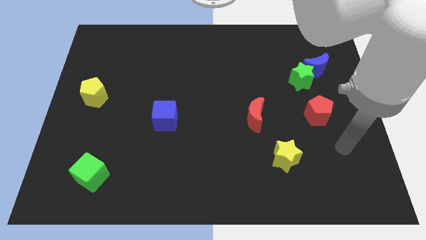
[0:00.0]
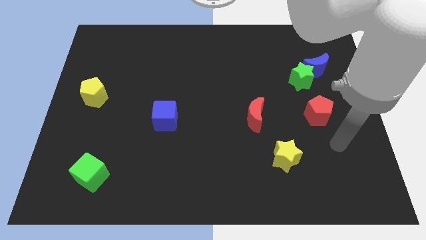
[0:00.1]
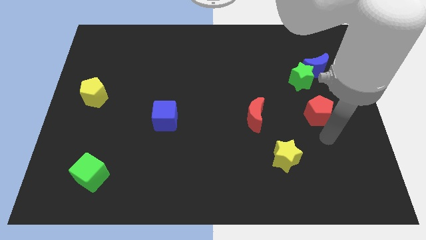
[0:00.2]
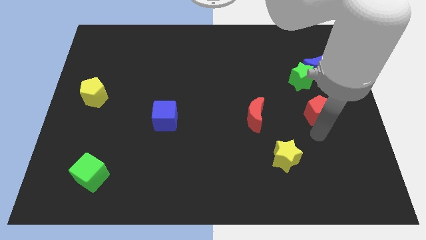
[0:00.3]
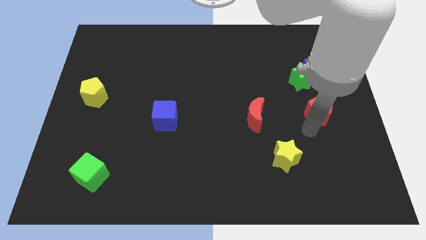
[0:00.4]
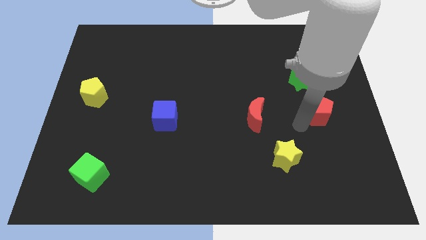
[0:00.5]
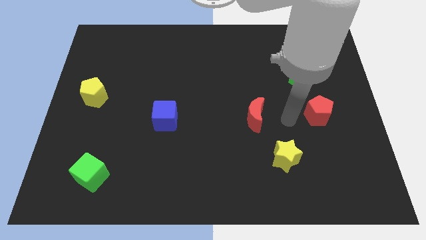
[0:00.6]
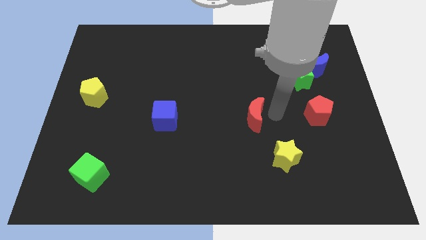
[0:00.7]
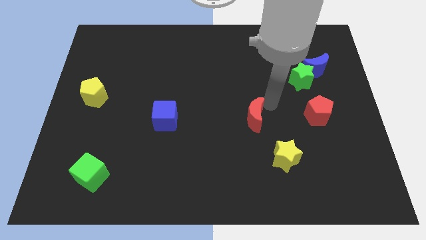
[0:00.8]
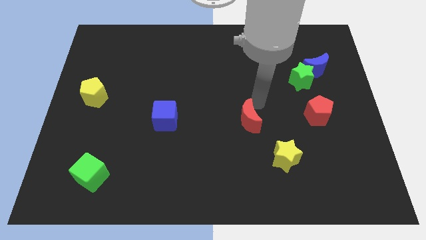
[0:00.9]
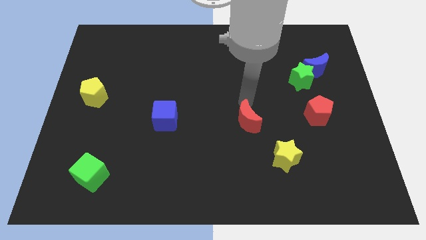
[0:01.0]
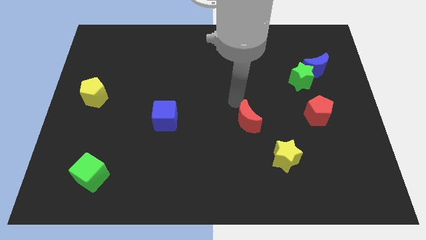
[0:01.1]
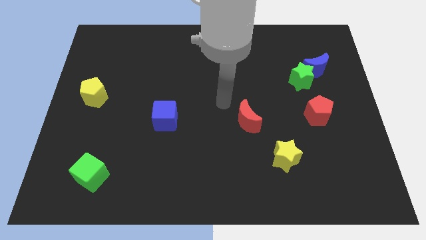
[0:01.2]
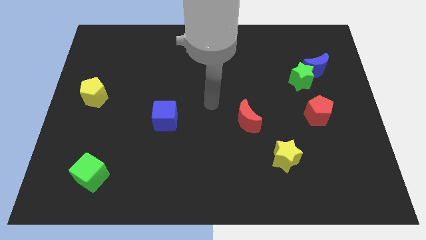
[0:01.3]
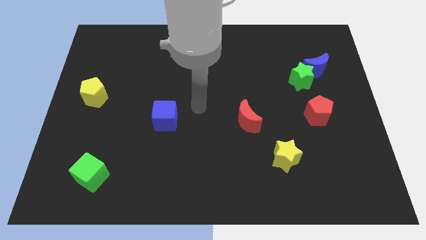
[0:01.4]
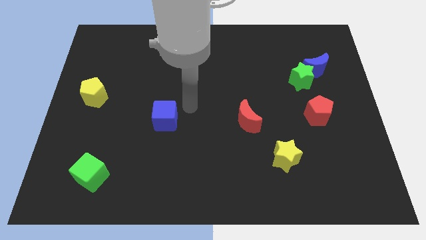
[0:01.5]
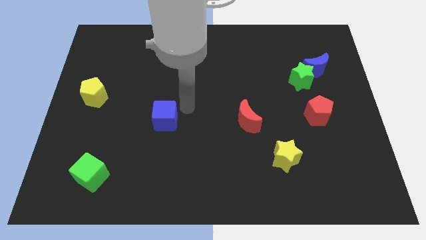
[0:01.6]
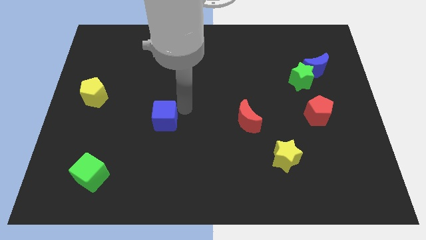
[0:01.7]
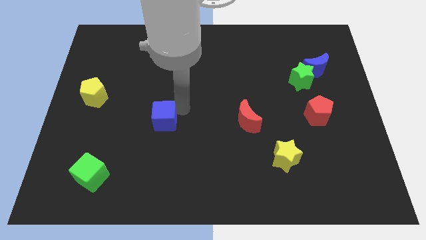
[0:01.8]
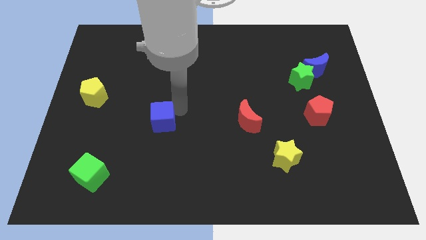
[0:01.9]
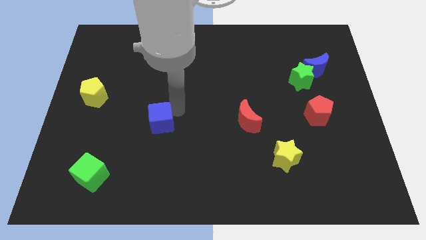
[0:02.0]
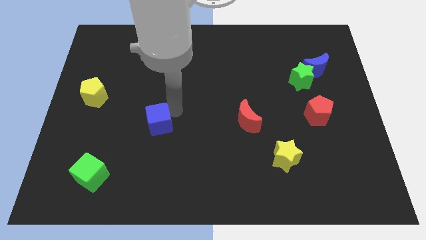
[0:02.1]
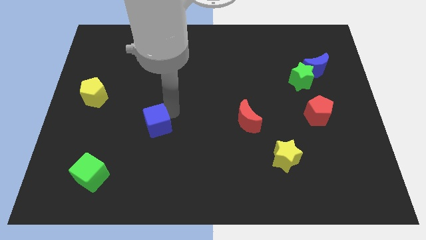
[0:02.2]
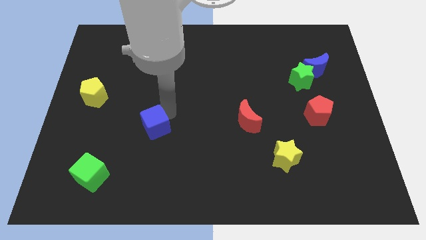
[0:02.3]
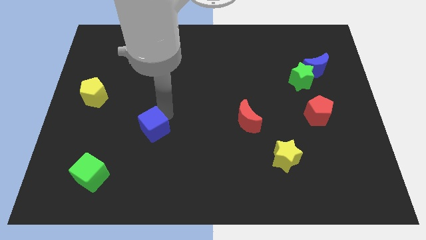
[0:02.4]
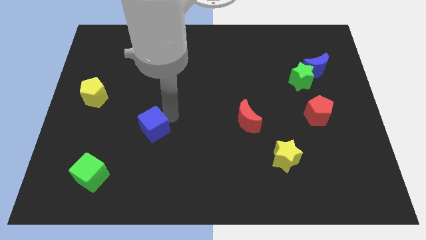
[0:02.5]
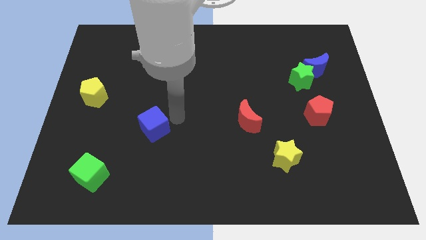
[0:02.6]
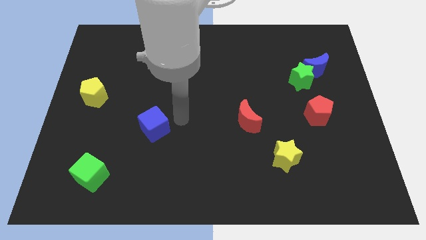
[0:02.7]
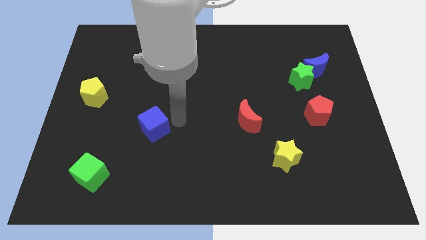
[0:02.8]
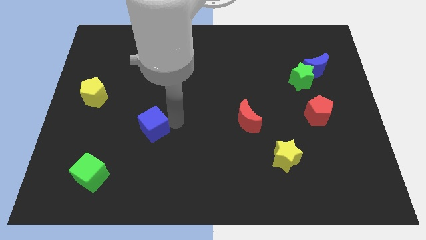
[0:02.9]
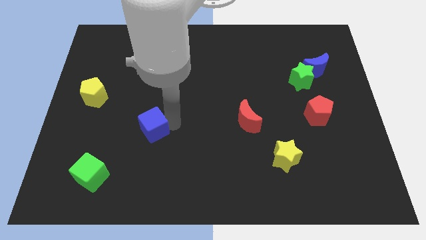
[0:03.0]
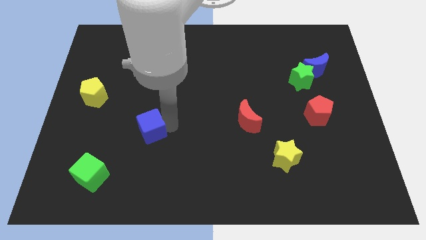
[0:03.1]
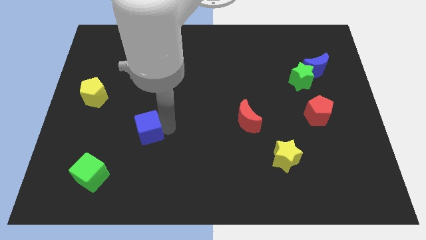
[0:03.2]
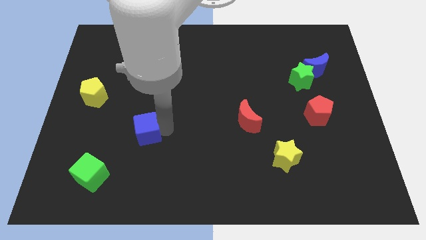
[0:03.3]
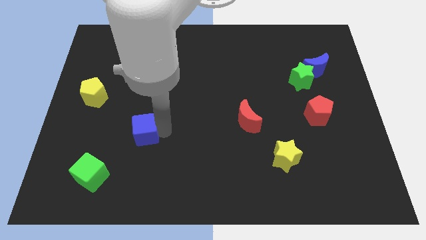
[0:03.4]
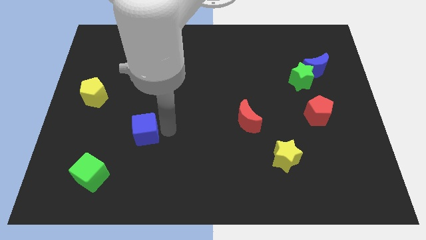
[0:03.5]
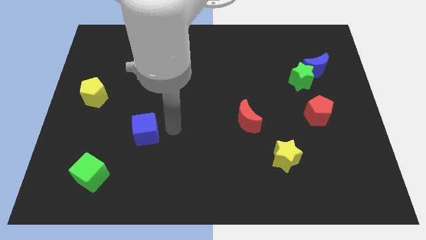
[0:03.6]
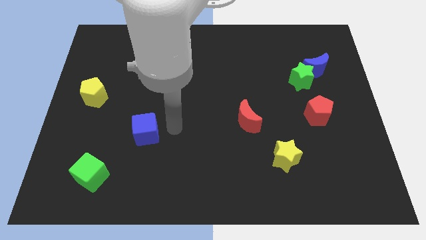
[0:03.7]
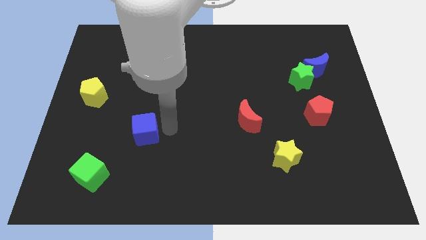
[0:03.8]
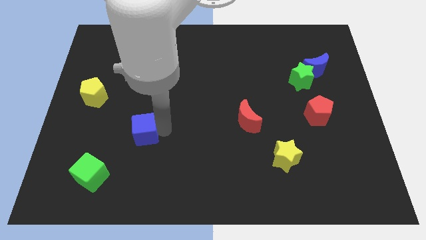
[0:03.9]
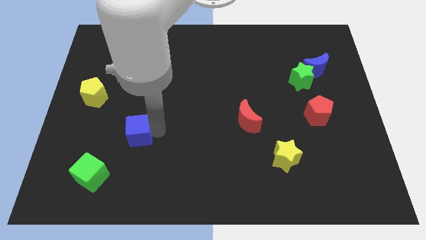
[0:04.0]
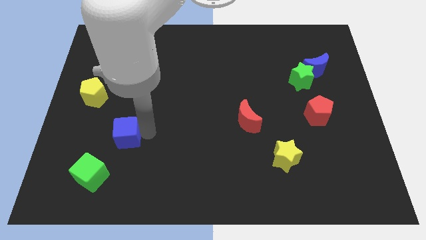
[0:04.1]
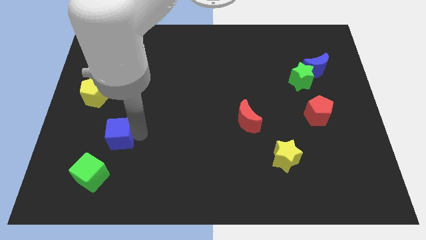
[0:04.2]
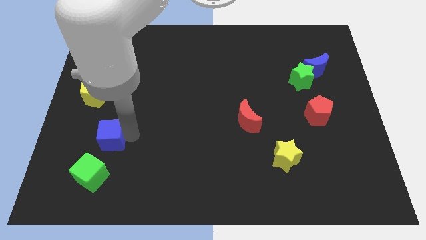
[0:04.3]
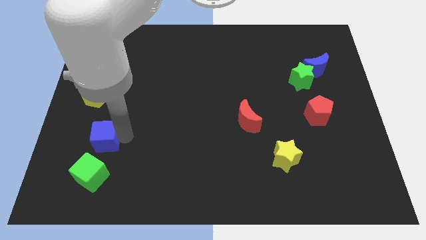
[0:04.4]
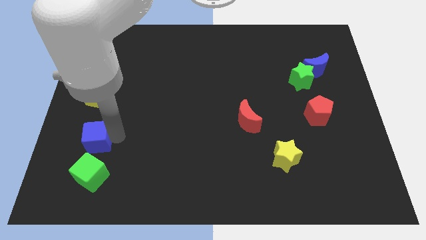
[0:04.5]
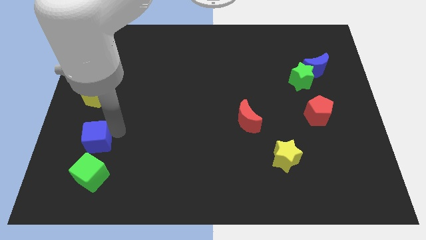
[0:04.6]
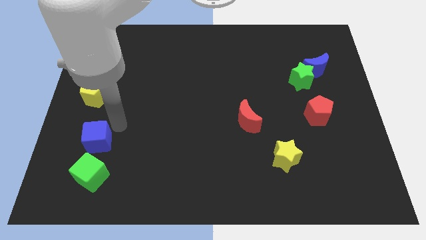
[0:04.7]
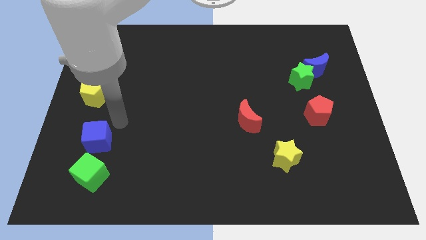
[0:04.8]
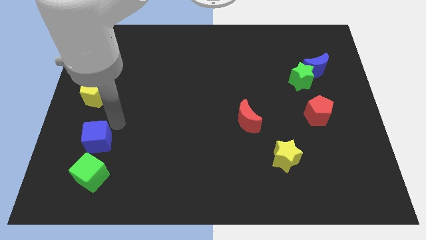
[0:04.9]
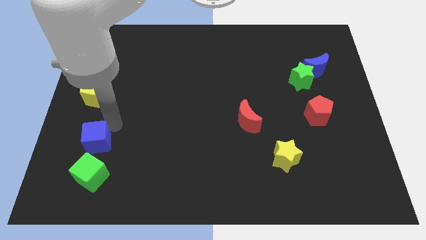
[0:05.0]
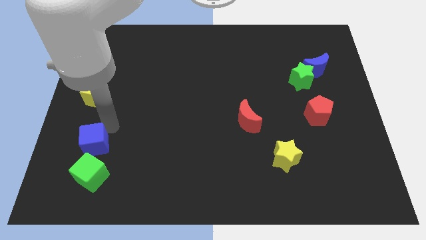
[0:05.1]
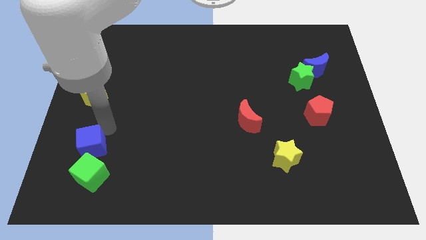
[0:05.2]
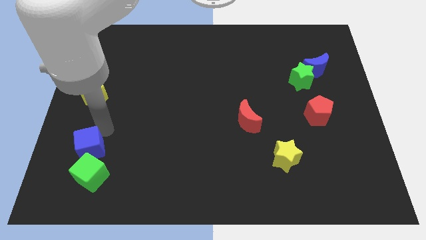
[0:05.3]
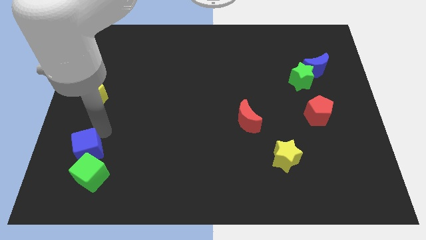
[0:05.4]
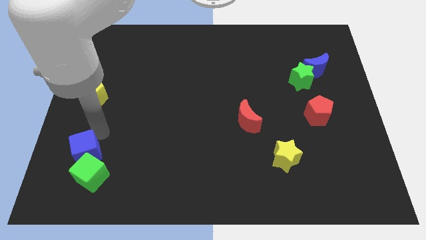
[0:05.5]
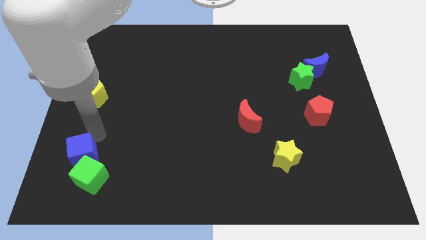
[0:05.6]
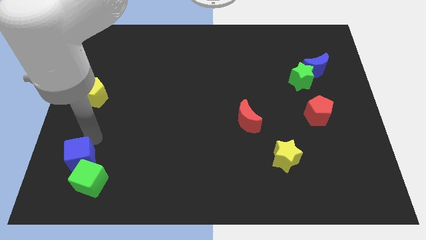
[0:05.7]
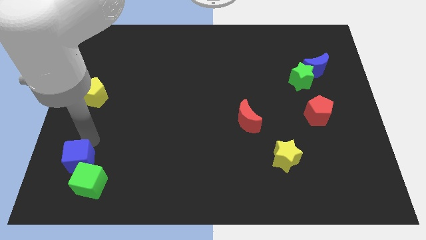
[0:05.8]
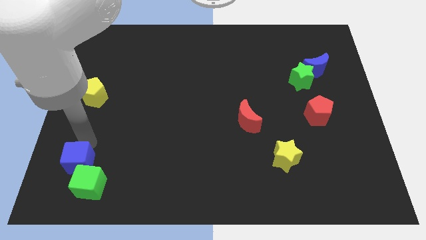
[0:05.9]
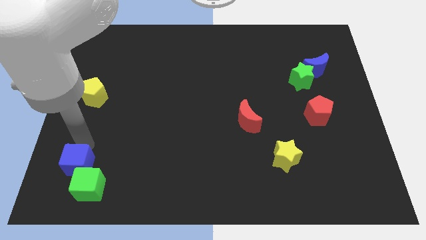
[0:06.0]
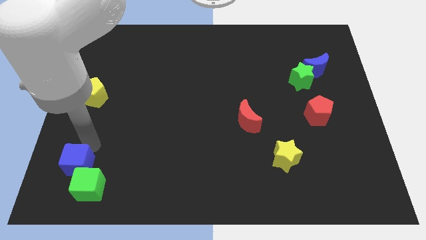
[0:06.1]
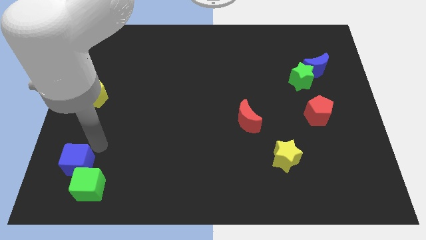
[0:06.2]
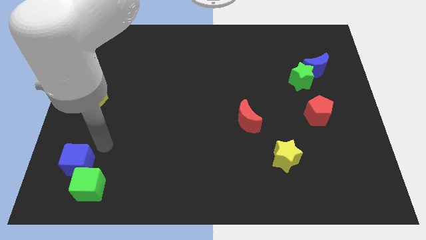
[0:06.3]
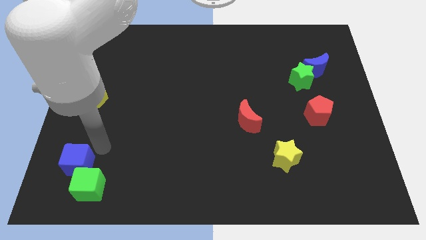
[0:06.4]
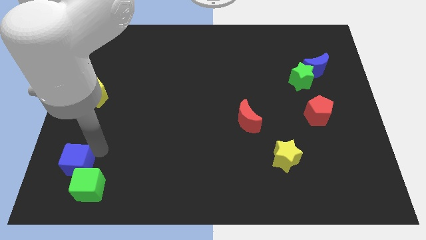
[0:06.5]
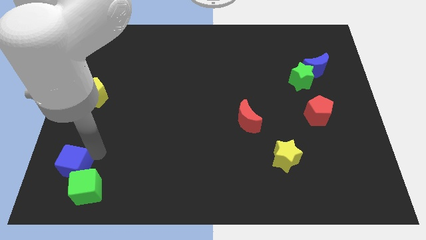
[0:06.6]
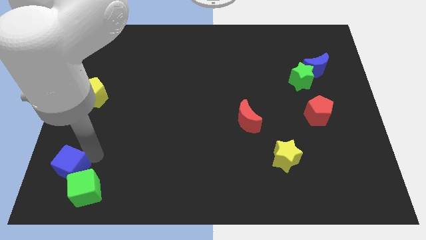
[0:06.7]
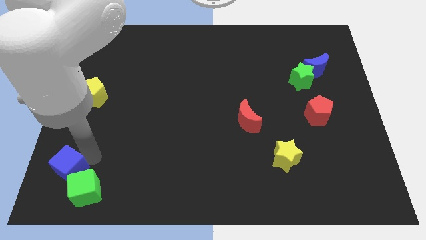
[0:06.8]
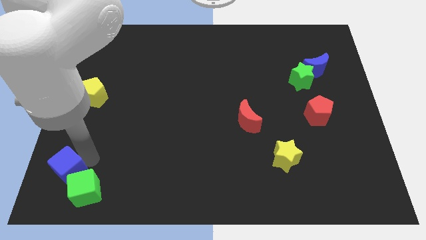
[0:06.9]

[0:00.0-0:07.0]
put the blue cube to the lower left corner
